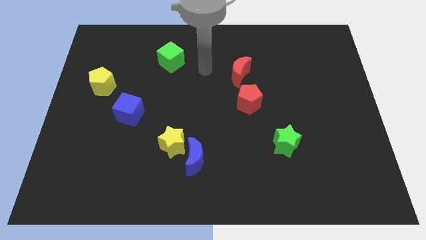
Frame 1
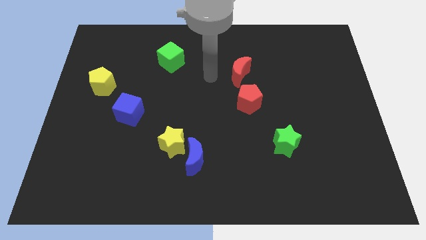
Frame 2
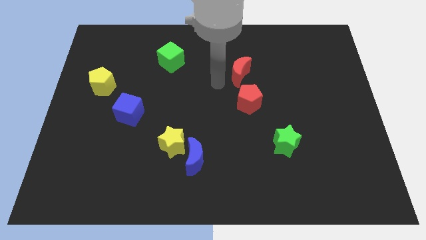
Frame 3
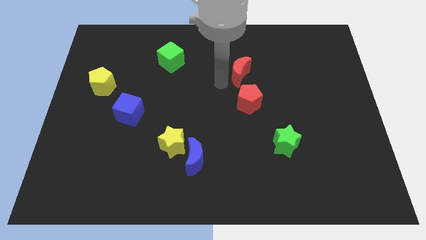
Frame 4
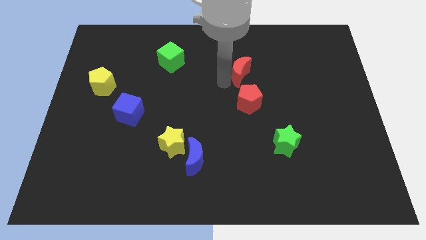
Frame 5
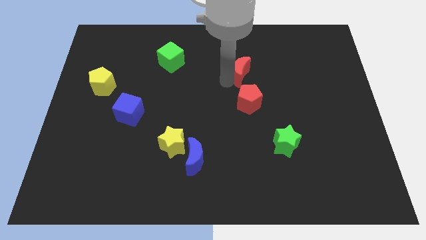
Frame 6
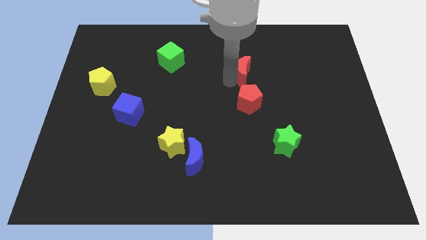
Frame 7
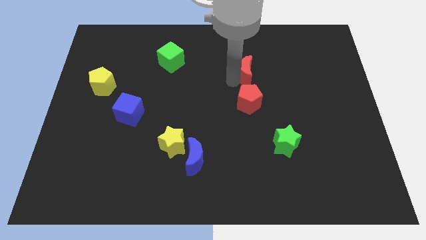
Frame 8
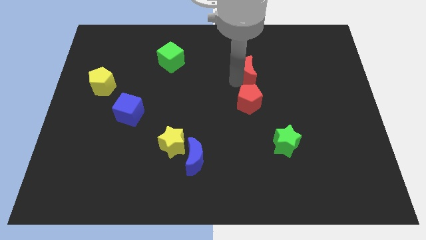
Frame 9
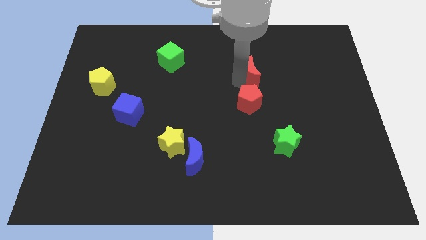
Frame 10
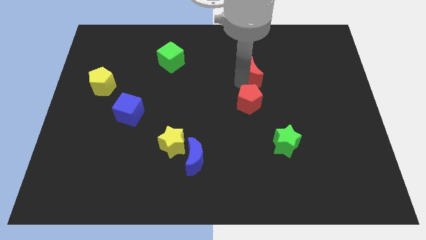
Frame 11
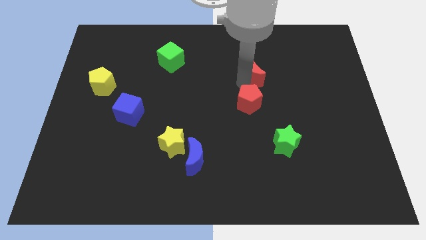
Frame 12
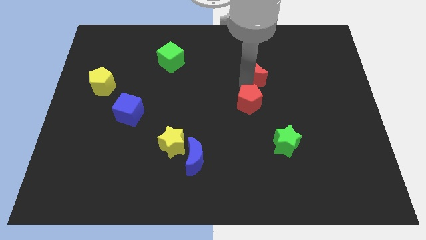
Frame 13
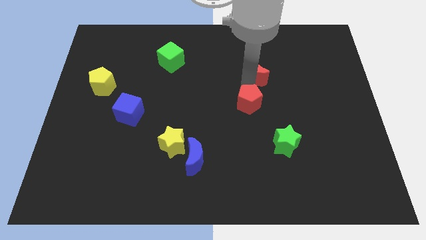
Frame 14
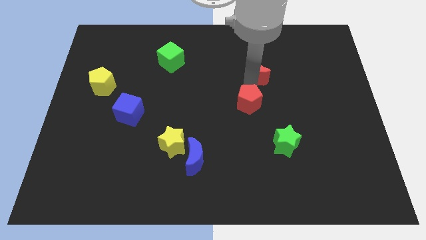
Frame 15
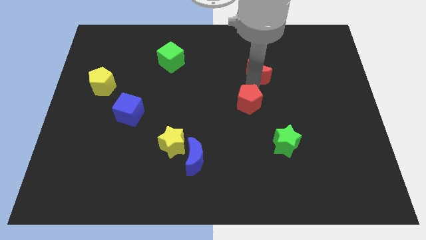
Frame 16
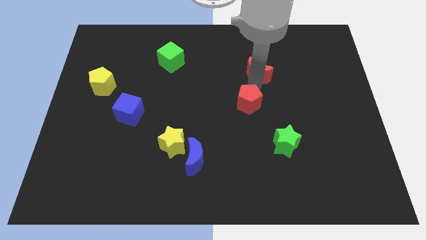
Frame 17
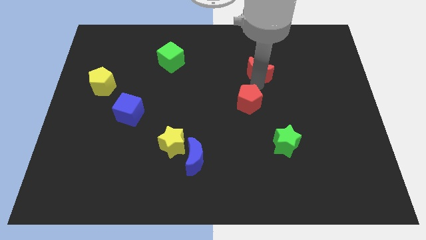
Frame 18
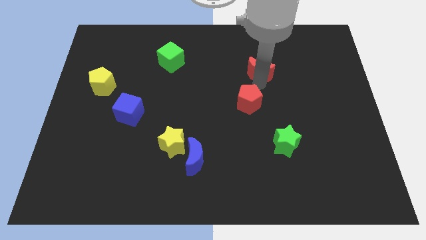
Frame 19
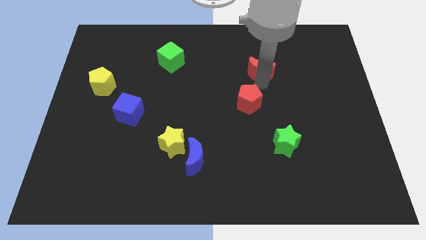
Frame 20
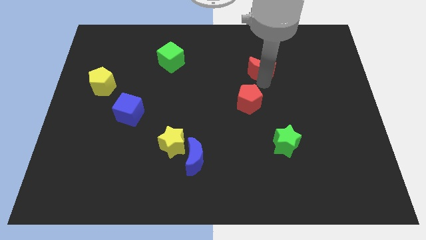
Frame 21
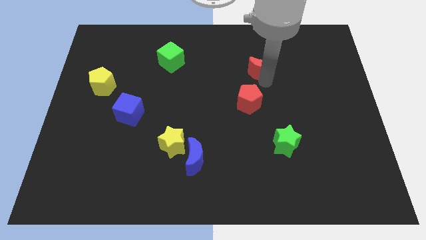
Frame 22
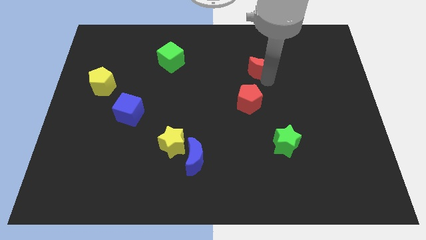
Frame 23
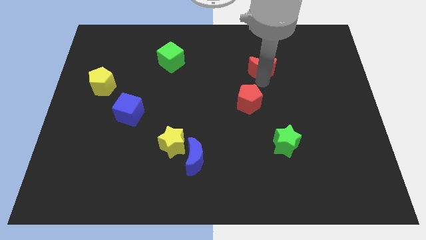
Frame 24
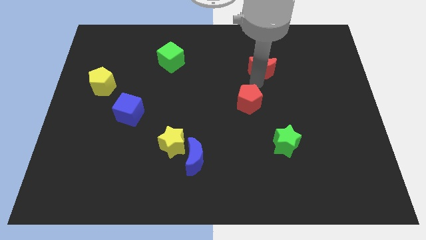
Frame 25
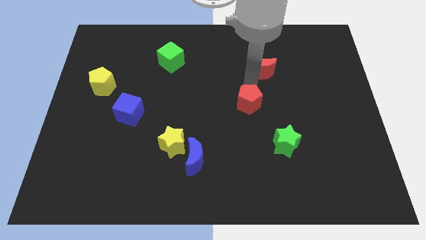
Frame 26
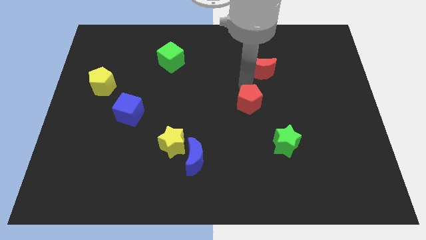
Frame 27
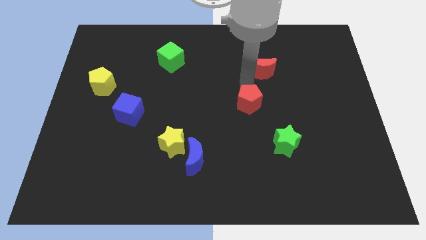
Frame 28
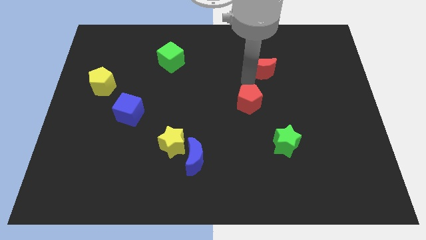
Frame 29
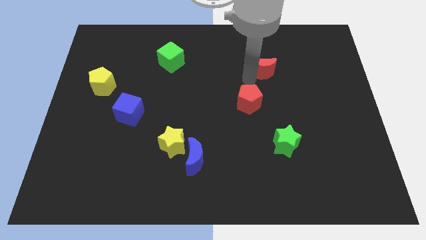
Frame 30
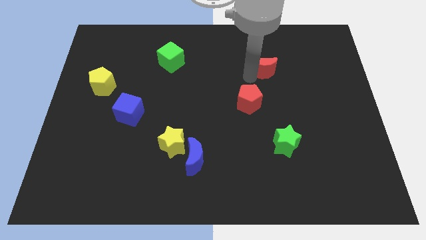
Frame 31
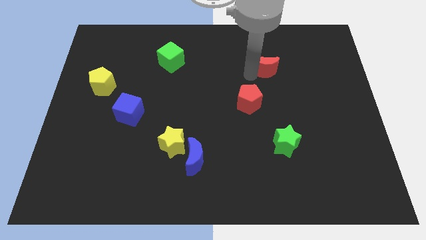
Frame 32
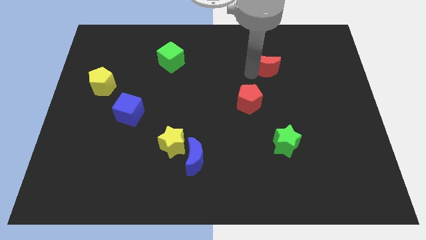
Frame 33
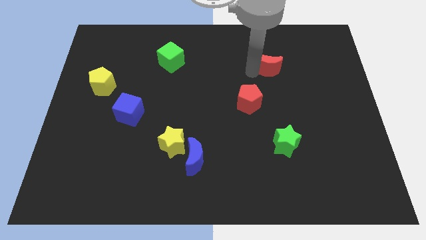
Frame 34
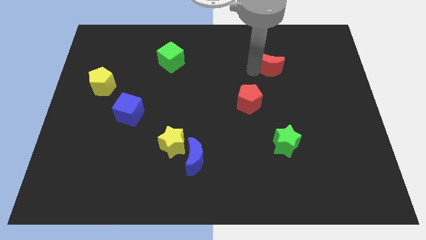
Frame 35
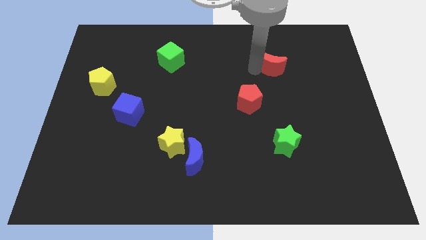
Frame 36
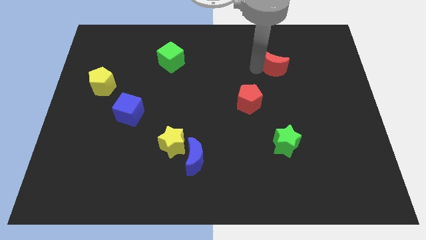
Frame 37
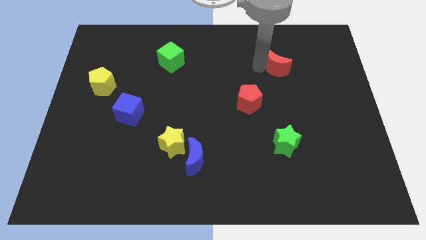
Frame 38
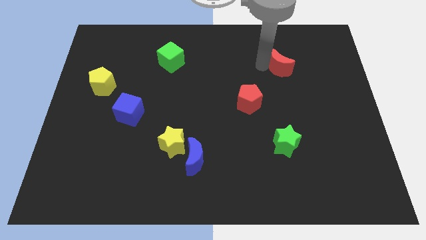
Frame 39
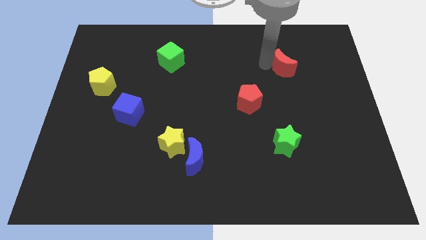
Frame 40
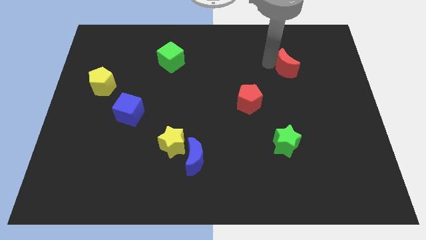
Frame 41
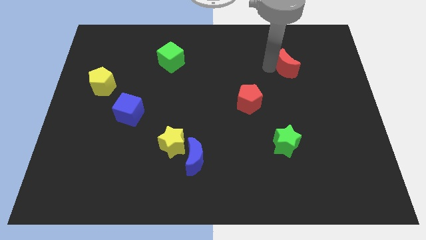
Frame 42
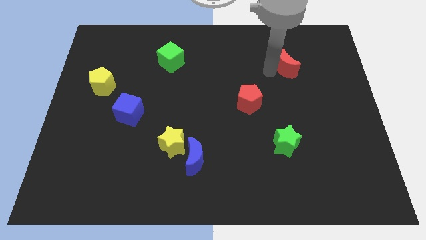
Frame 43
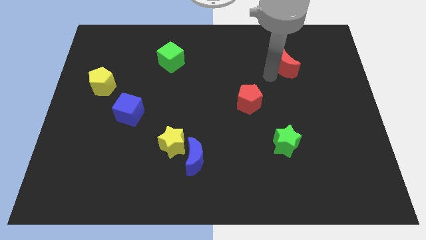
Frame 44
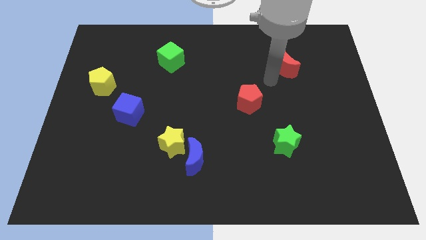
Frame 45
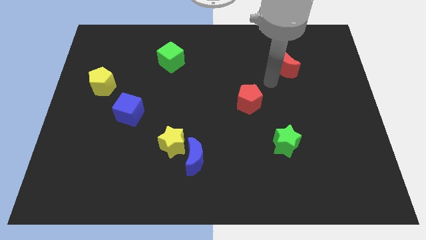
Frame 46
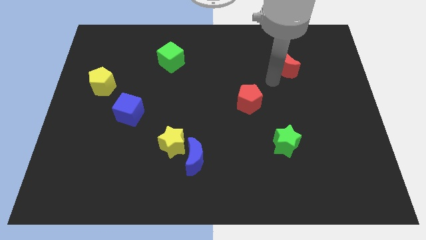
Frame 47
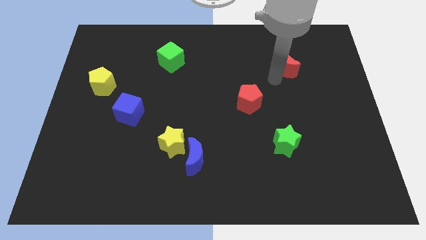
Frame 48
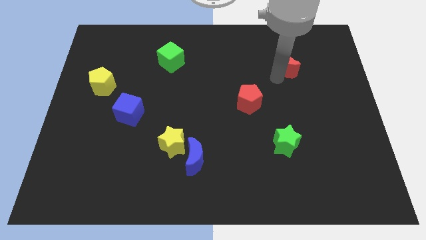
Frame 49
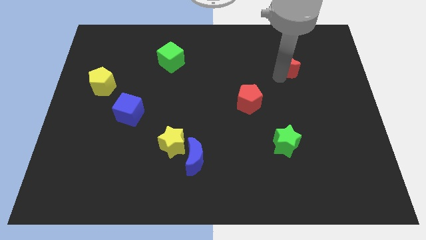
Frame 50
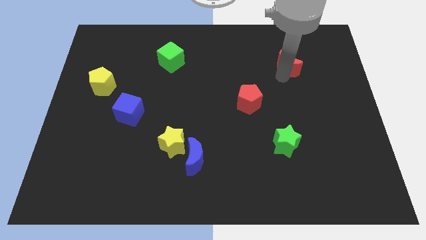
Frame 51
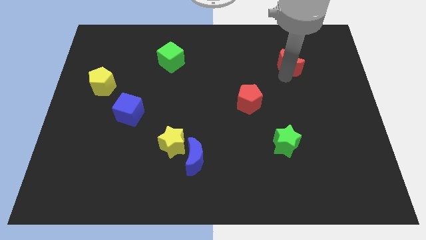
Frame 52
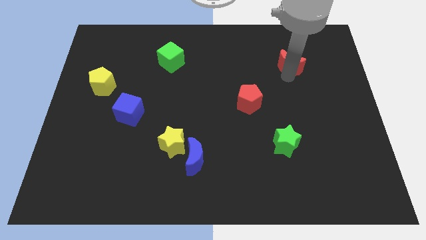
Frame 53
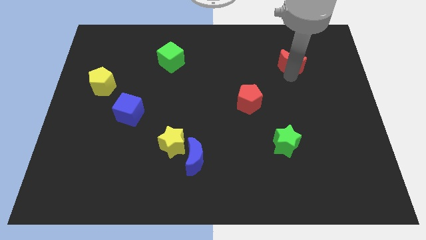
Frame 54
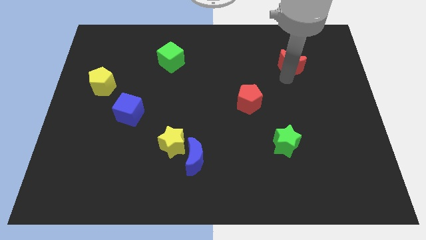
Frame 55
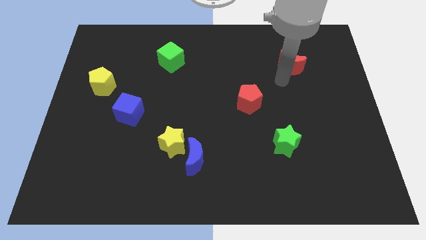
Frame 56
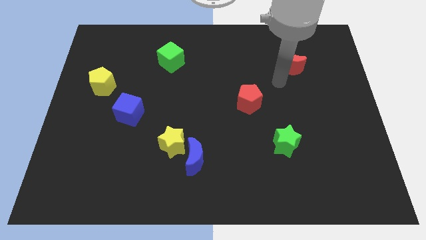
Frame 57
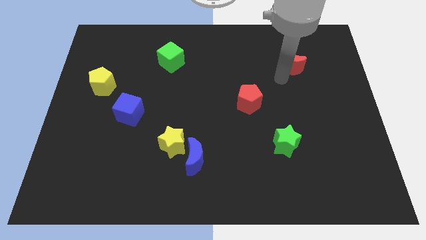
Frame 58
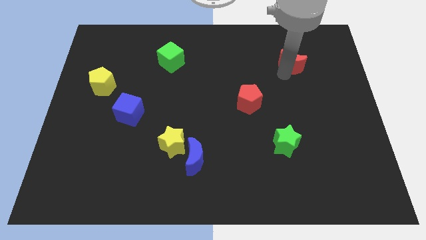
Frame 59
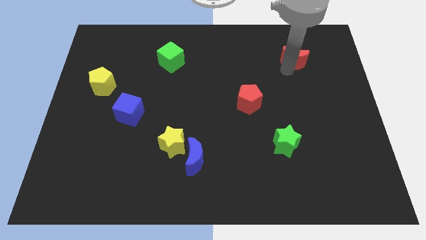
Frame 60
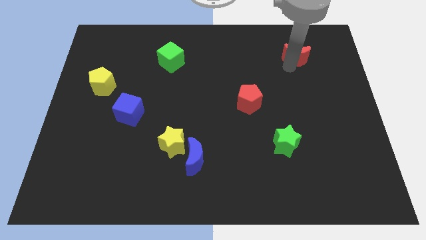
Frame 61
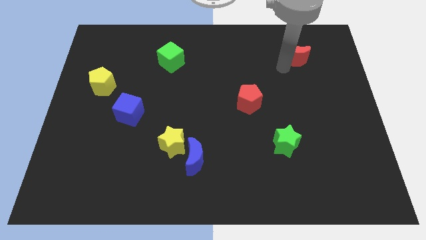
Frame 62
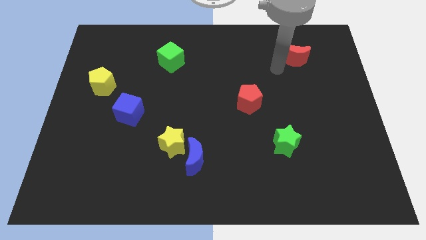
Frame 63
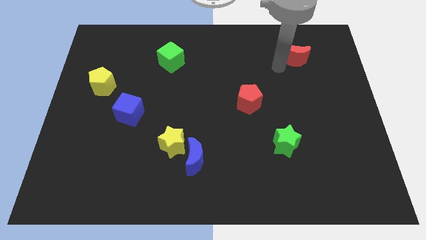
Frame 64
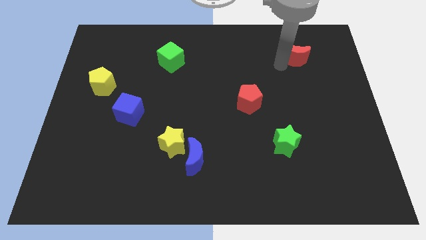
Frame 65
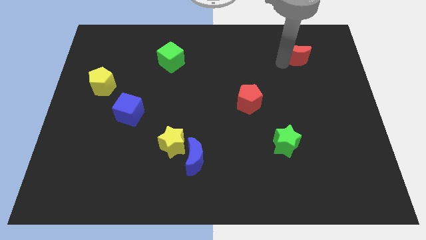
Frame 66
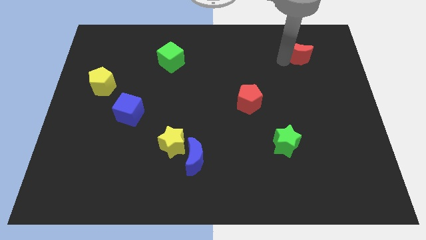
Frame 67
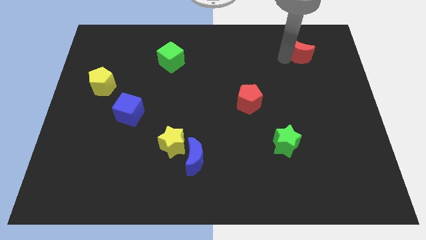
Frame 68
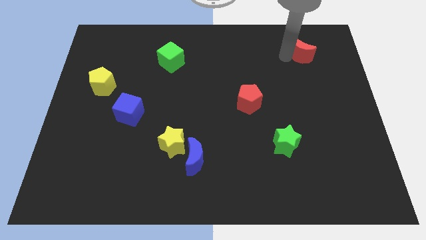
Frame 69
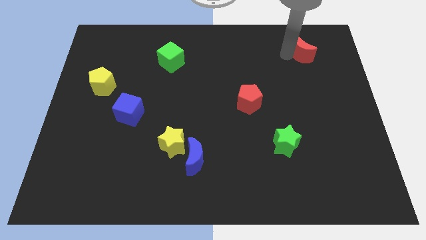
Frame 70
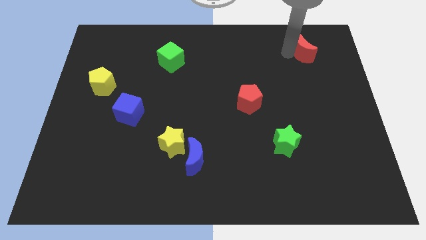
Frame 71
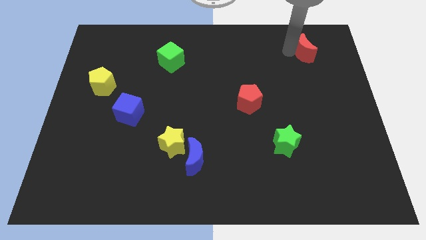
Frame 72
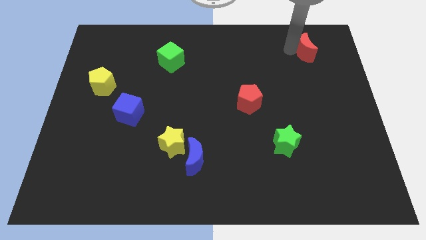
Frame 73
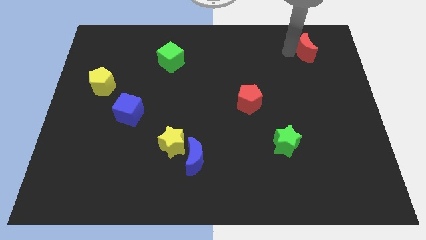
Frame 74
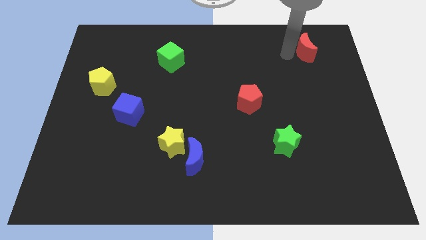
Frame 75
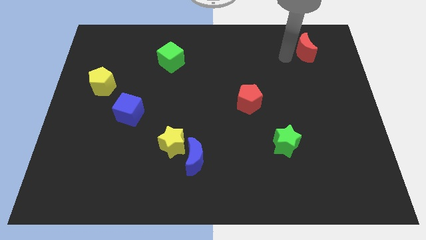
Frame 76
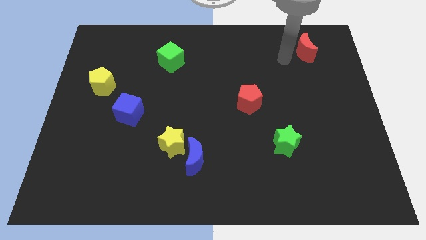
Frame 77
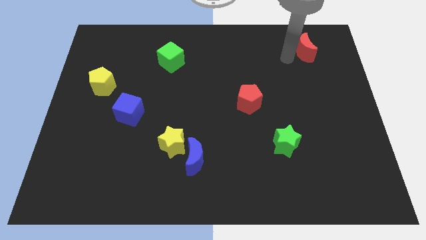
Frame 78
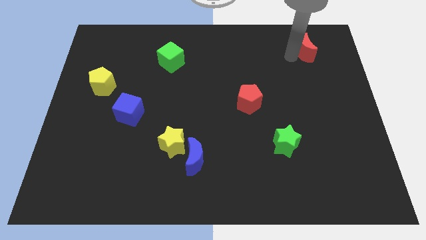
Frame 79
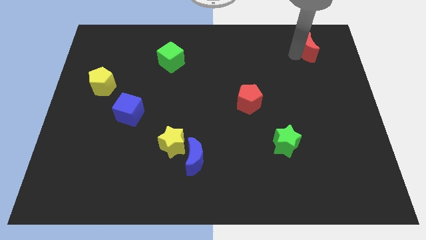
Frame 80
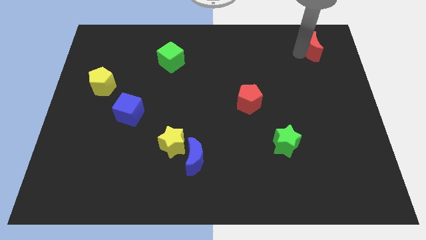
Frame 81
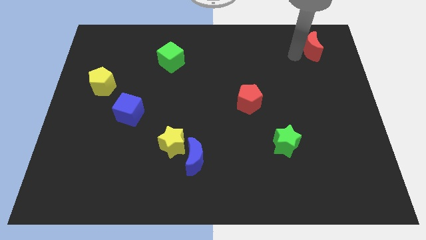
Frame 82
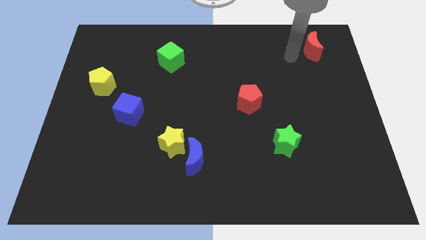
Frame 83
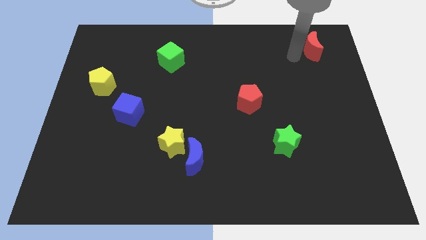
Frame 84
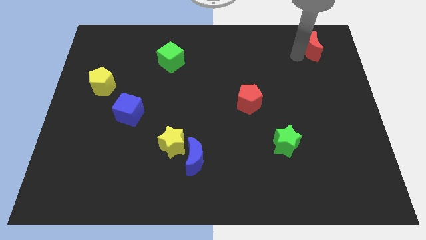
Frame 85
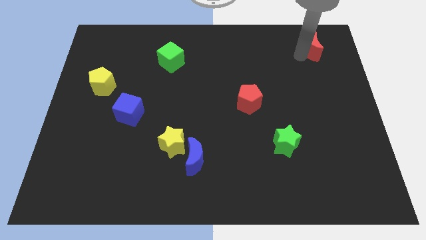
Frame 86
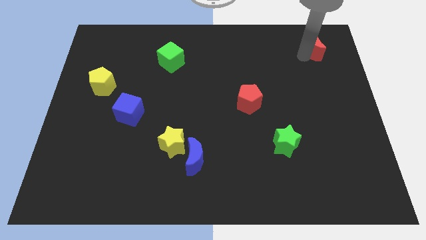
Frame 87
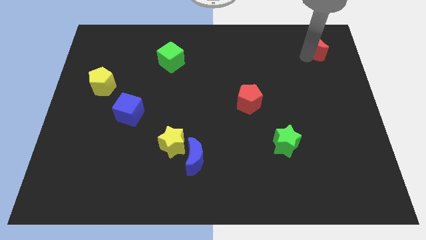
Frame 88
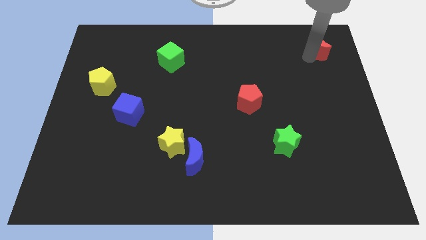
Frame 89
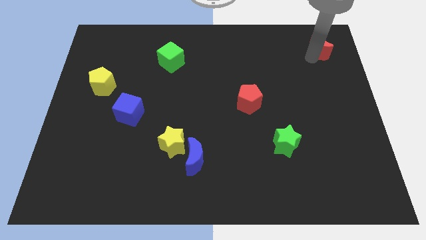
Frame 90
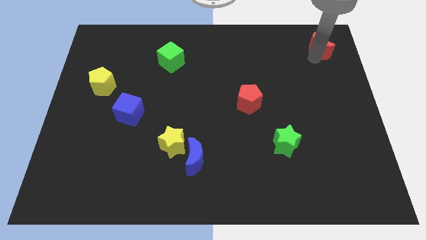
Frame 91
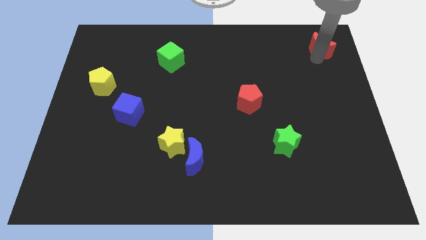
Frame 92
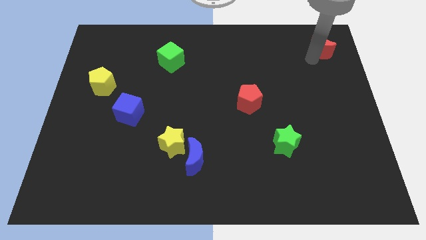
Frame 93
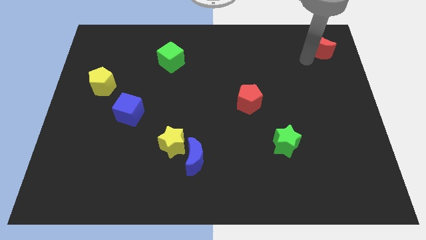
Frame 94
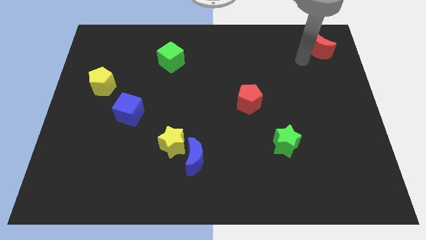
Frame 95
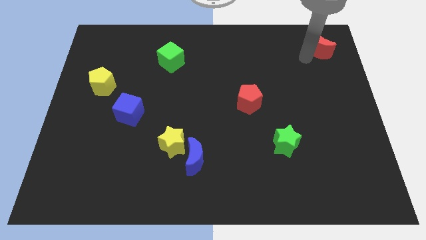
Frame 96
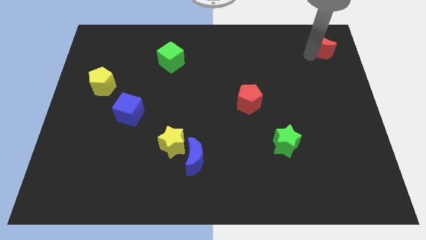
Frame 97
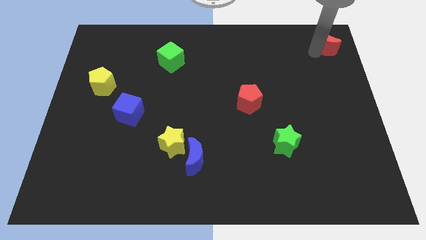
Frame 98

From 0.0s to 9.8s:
put the red moon to the upper right corner
